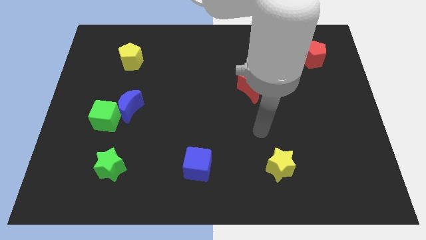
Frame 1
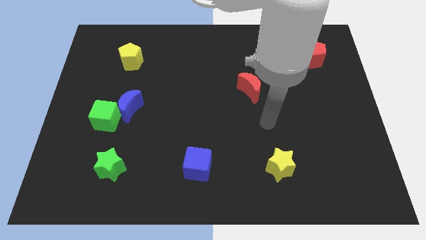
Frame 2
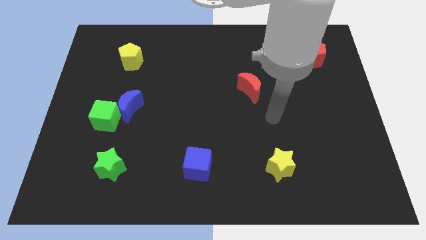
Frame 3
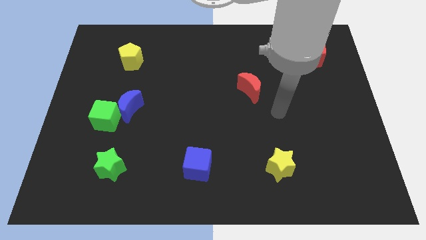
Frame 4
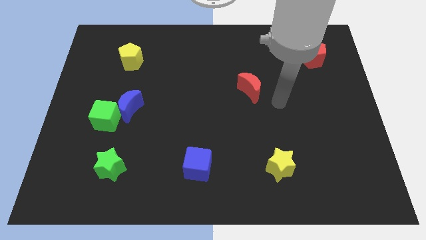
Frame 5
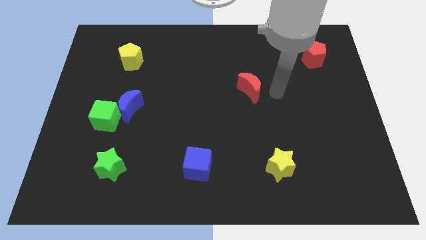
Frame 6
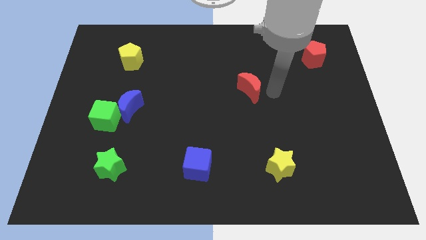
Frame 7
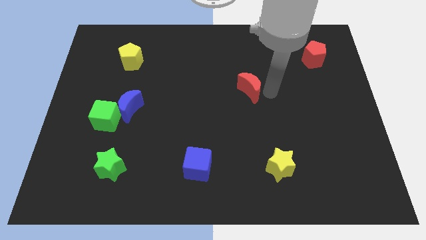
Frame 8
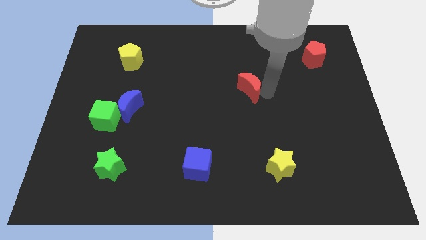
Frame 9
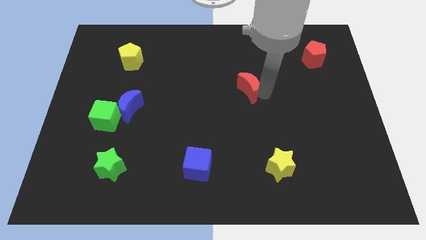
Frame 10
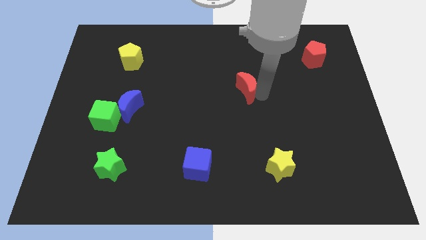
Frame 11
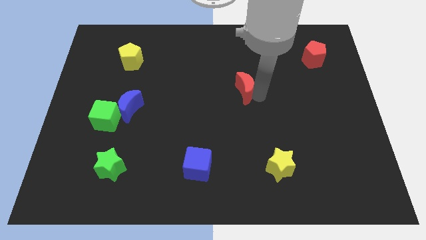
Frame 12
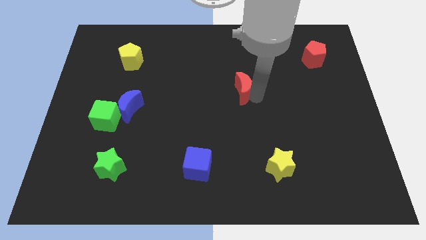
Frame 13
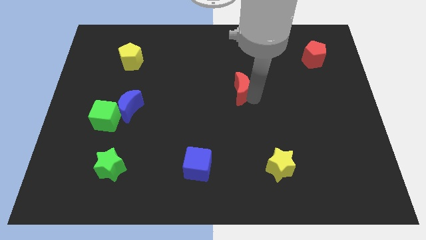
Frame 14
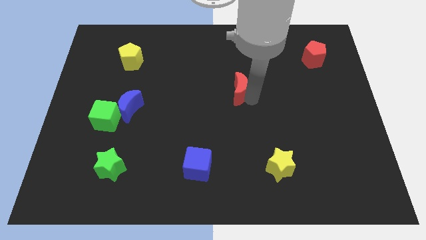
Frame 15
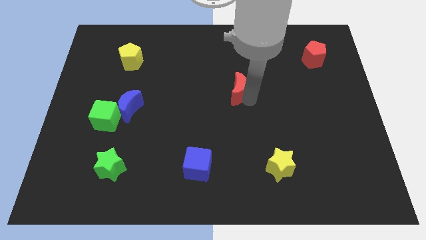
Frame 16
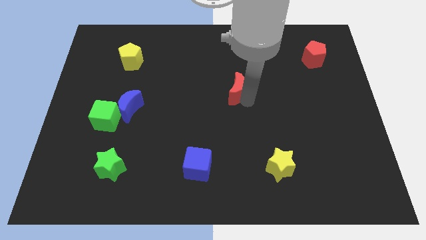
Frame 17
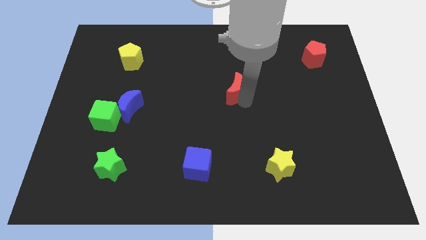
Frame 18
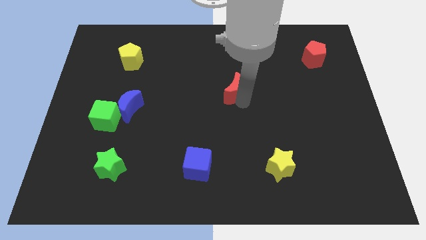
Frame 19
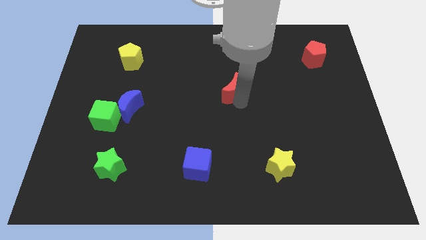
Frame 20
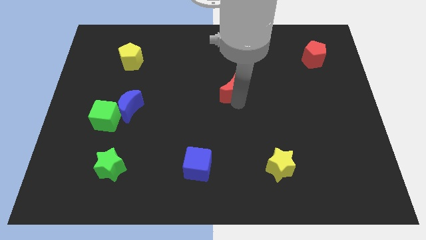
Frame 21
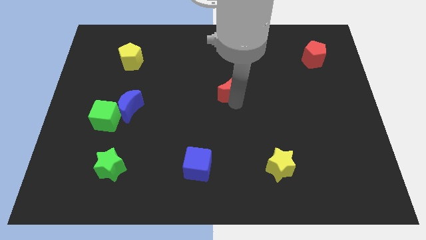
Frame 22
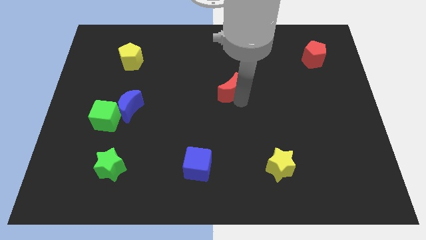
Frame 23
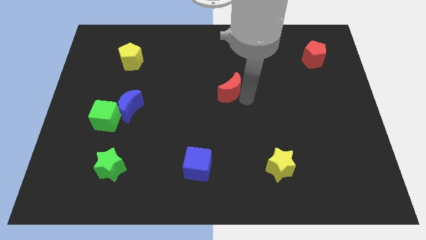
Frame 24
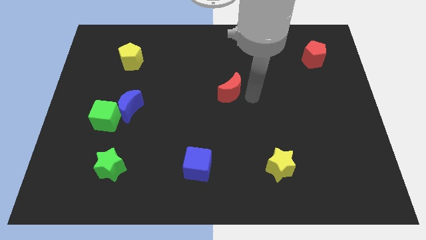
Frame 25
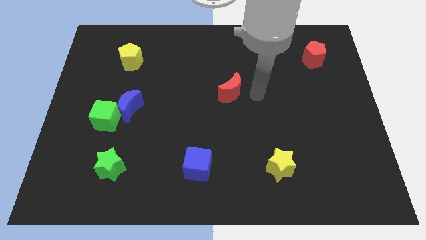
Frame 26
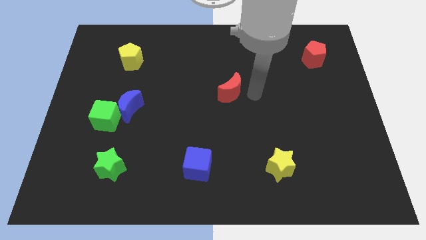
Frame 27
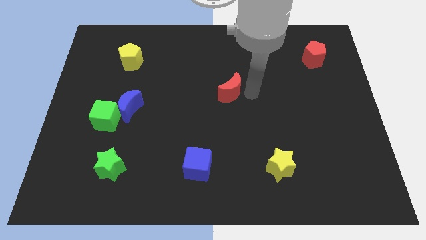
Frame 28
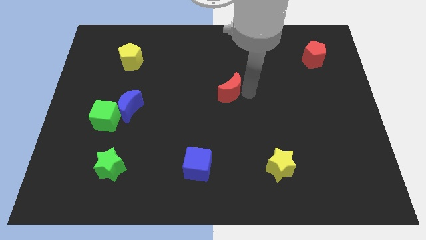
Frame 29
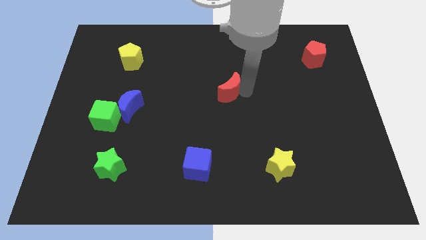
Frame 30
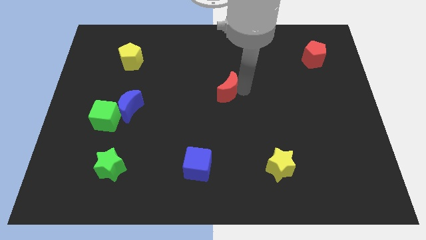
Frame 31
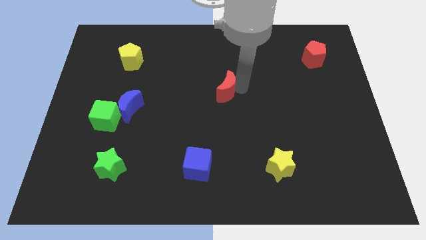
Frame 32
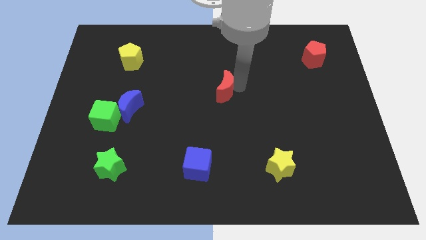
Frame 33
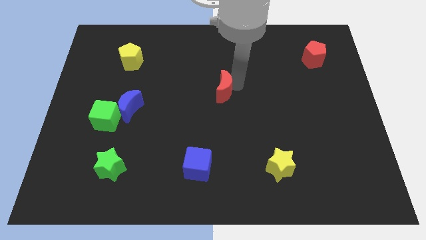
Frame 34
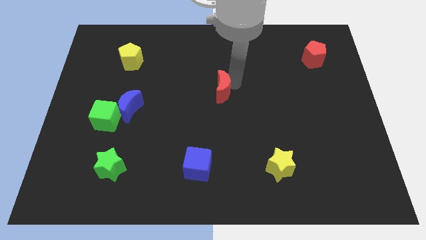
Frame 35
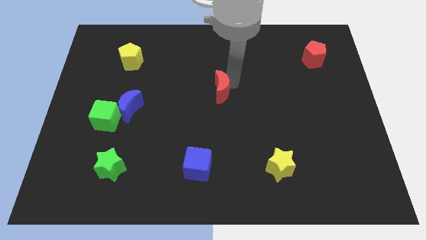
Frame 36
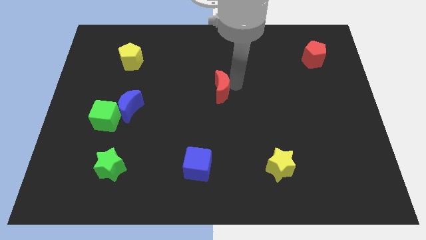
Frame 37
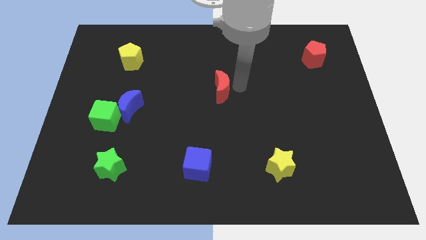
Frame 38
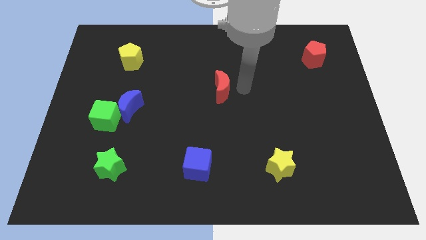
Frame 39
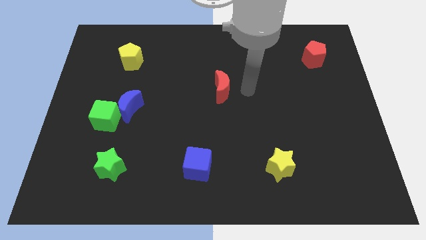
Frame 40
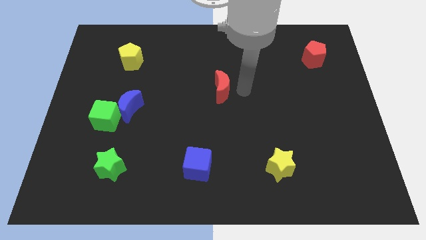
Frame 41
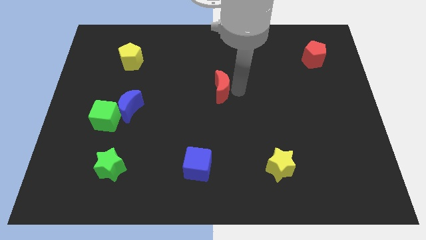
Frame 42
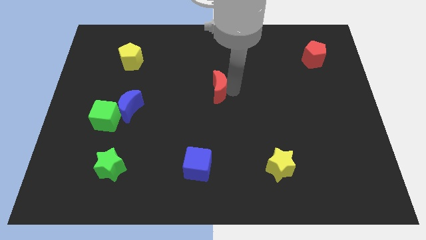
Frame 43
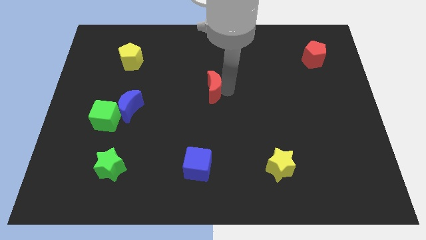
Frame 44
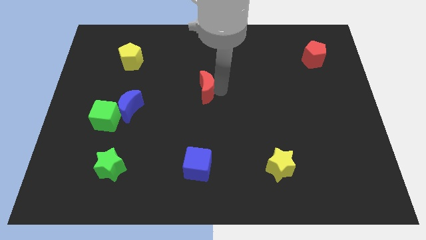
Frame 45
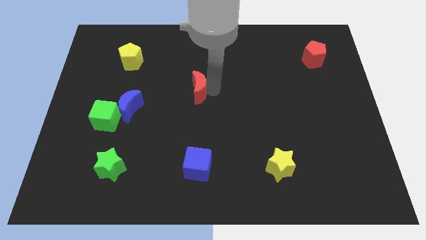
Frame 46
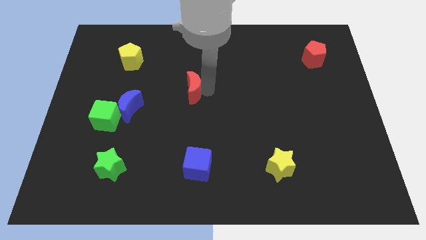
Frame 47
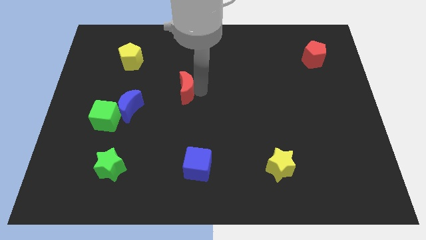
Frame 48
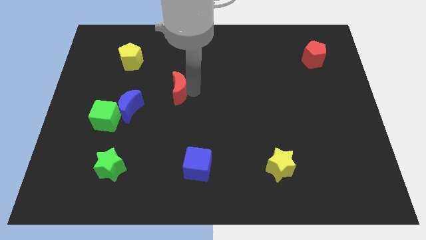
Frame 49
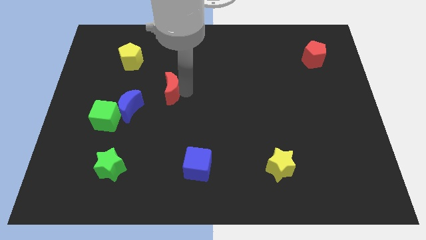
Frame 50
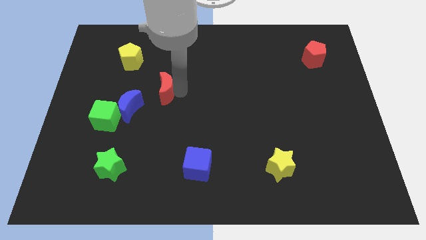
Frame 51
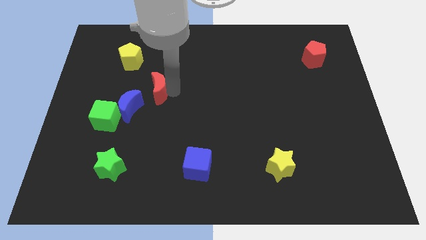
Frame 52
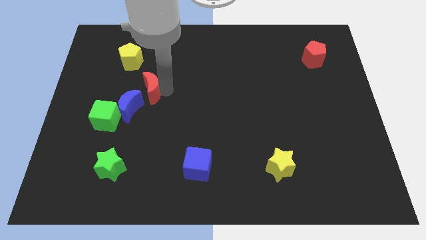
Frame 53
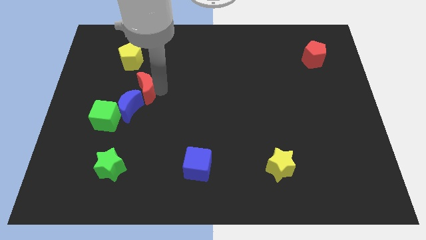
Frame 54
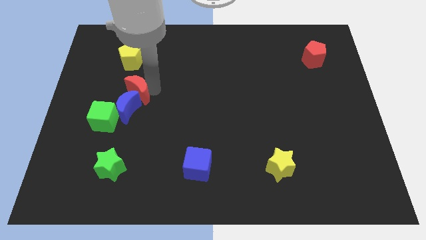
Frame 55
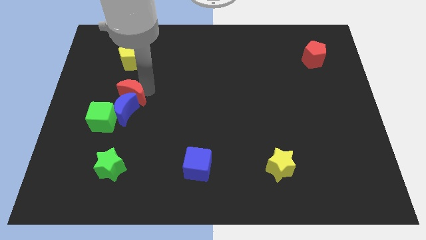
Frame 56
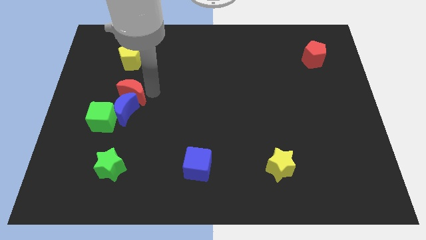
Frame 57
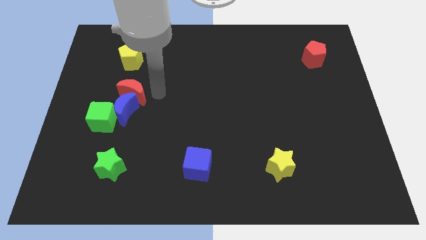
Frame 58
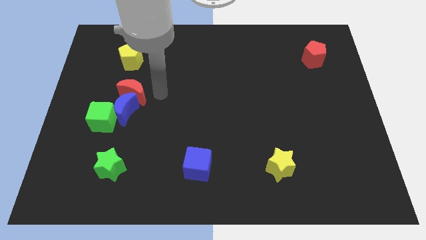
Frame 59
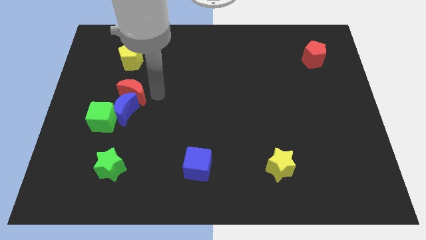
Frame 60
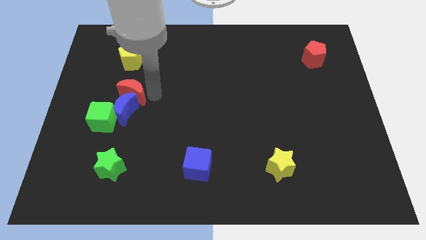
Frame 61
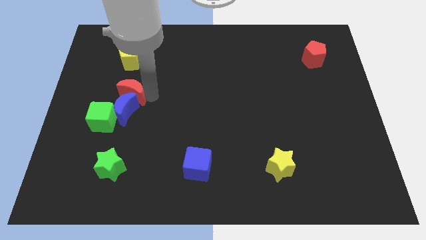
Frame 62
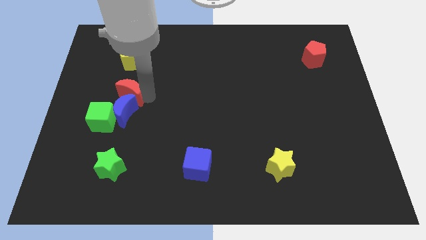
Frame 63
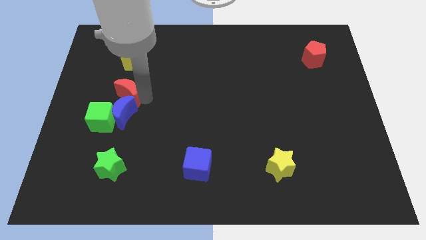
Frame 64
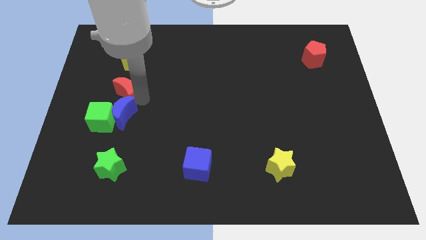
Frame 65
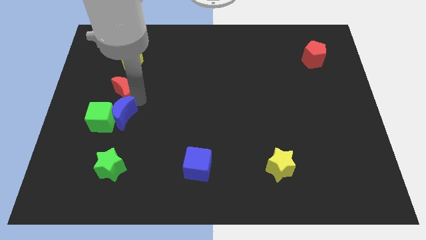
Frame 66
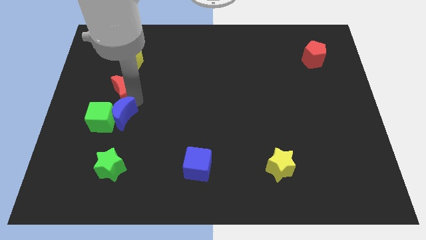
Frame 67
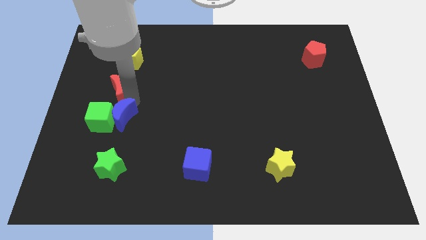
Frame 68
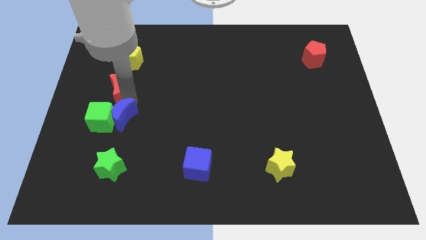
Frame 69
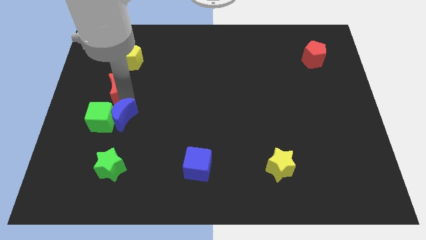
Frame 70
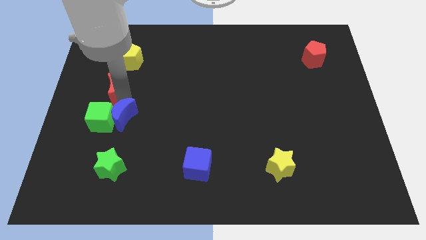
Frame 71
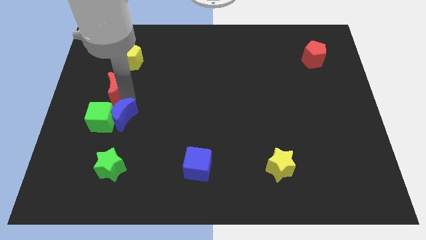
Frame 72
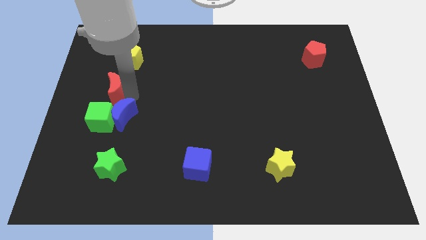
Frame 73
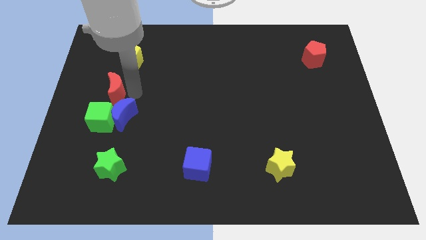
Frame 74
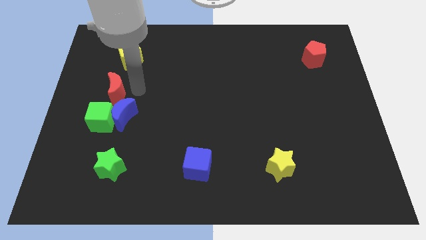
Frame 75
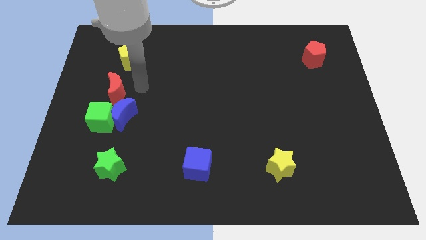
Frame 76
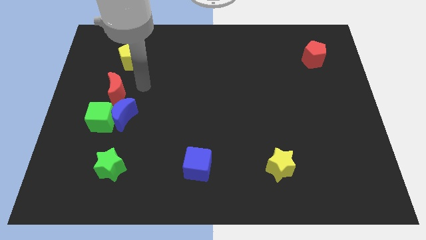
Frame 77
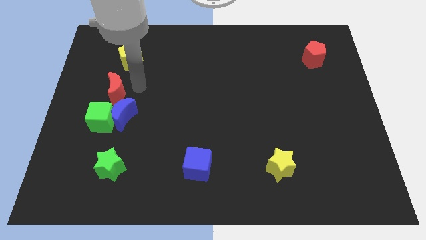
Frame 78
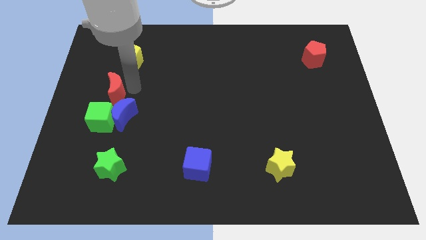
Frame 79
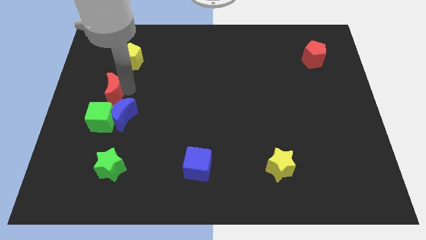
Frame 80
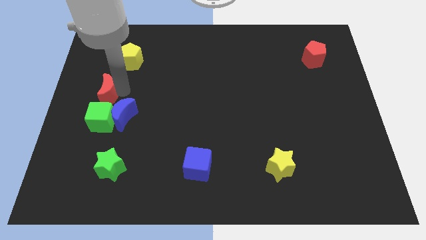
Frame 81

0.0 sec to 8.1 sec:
slide the red moon to the center left
